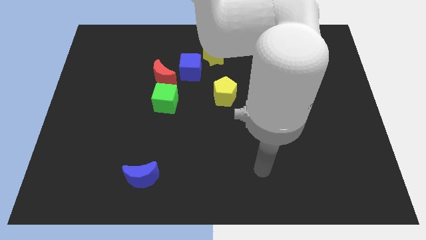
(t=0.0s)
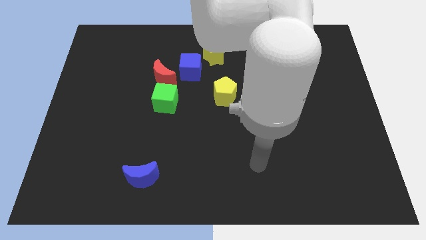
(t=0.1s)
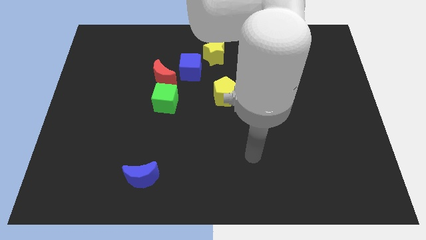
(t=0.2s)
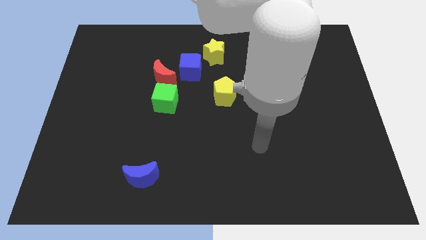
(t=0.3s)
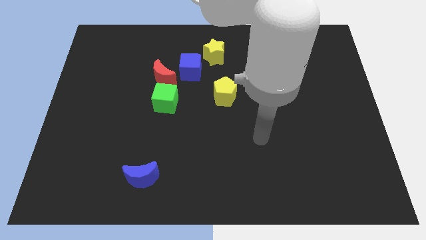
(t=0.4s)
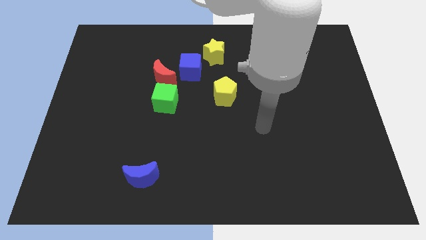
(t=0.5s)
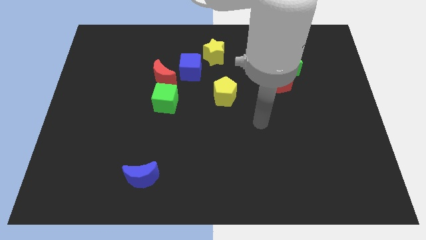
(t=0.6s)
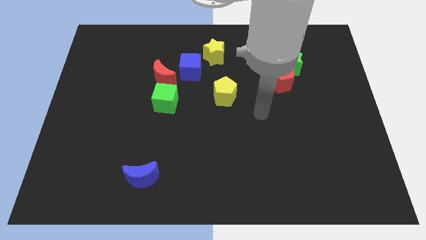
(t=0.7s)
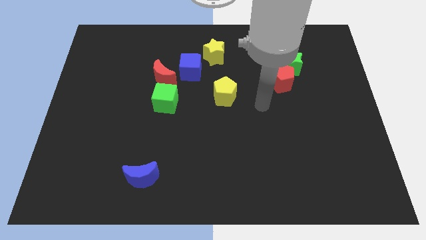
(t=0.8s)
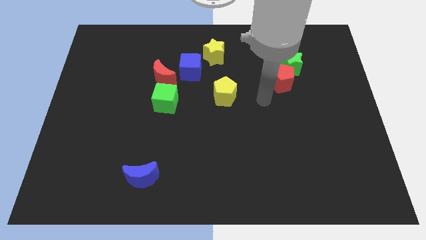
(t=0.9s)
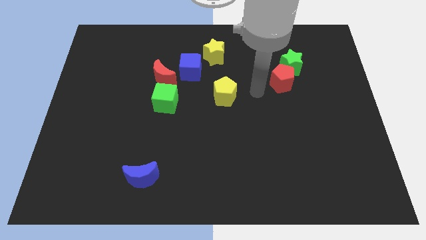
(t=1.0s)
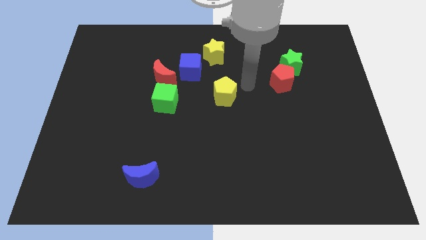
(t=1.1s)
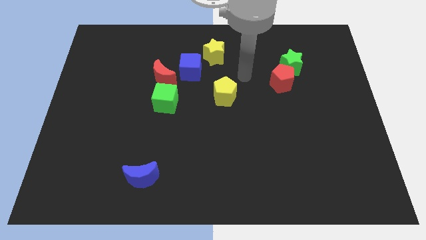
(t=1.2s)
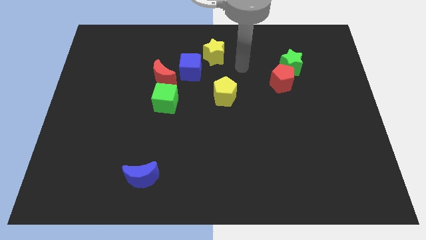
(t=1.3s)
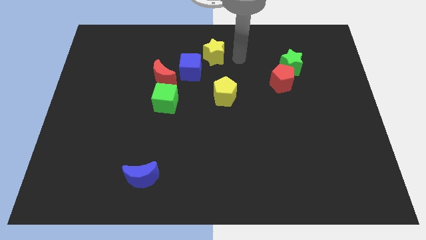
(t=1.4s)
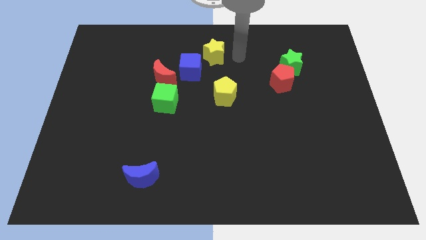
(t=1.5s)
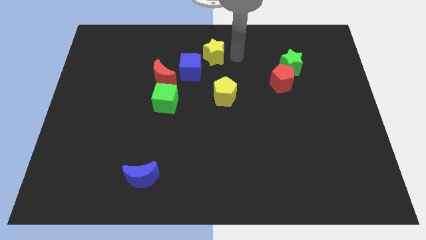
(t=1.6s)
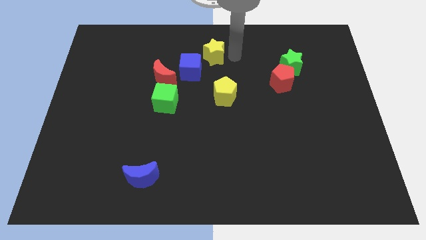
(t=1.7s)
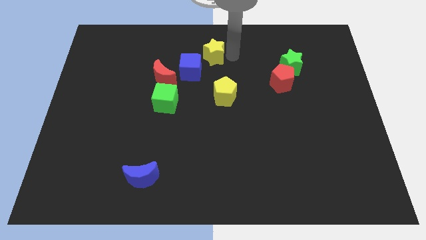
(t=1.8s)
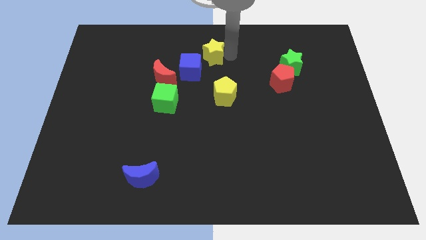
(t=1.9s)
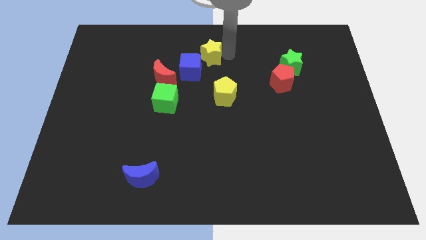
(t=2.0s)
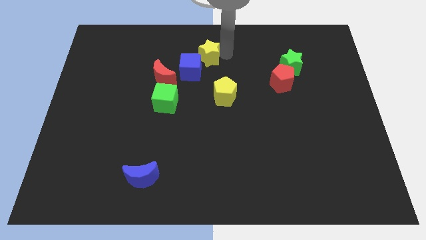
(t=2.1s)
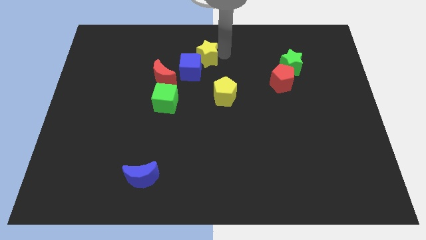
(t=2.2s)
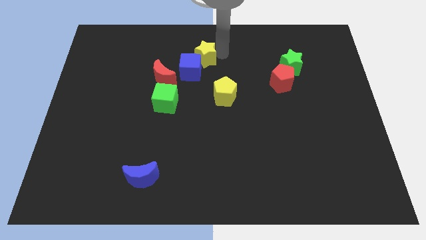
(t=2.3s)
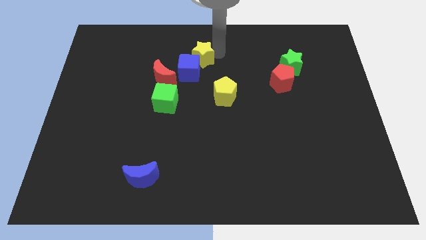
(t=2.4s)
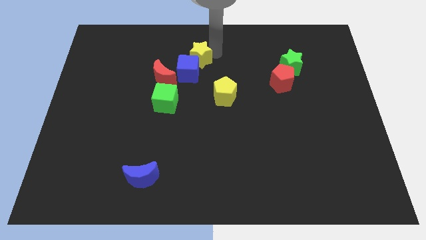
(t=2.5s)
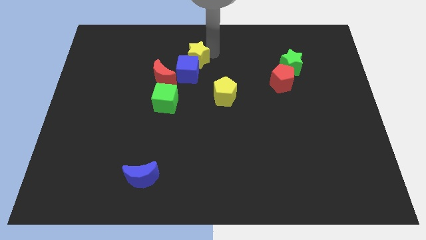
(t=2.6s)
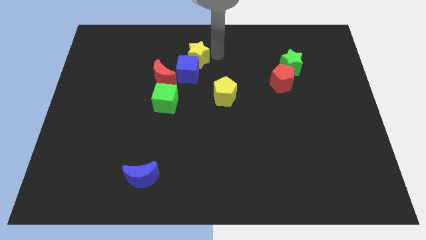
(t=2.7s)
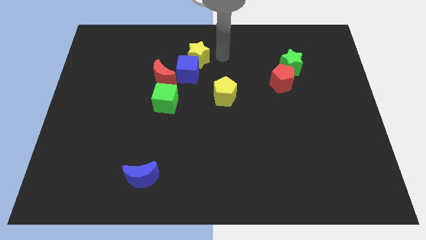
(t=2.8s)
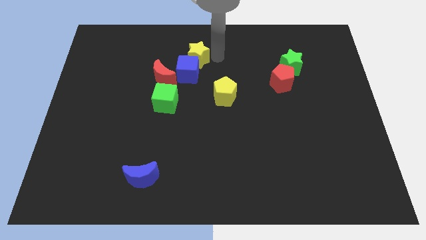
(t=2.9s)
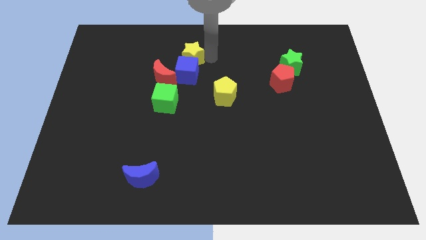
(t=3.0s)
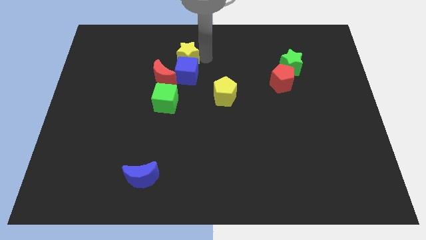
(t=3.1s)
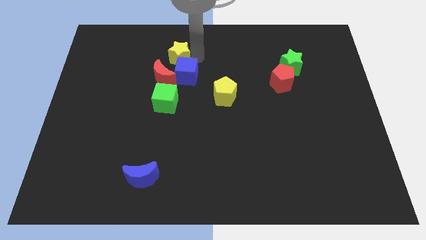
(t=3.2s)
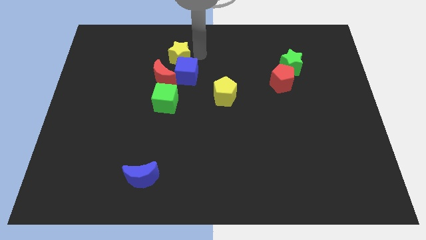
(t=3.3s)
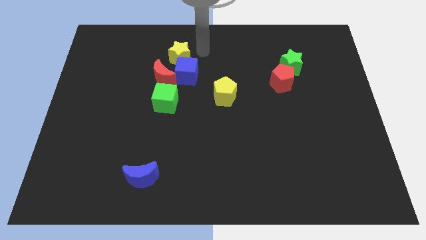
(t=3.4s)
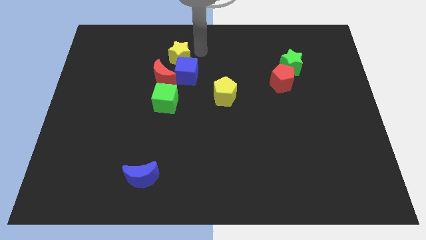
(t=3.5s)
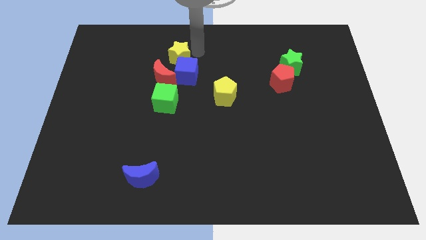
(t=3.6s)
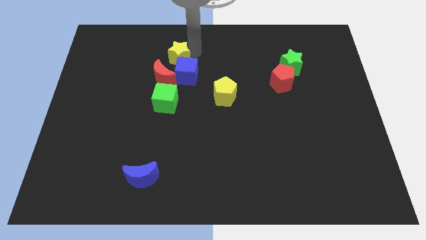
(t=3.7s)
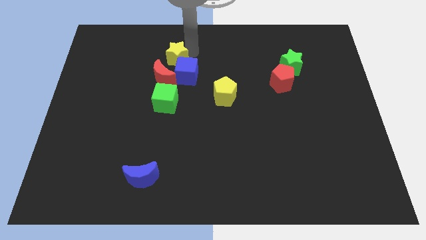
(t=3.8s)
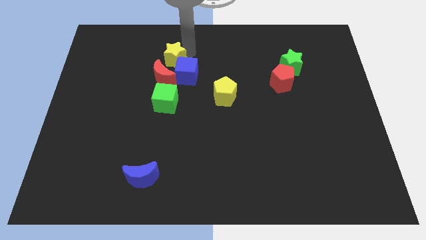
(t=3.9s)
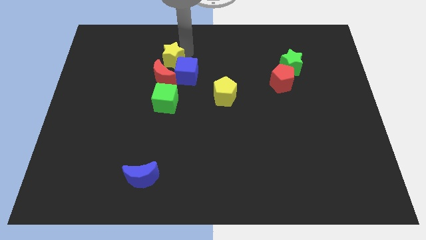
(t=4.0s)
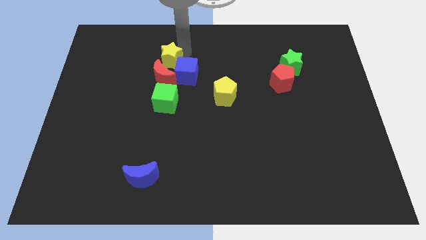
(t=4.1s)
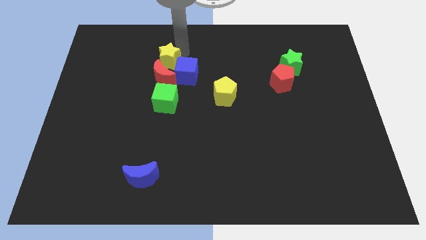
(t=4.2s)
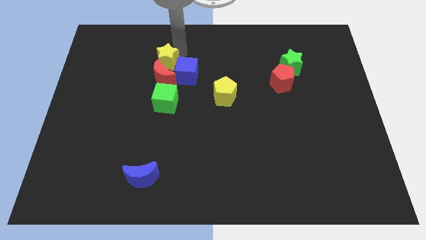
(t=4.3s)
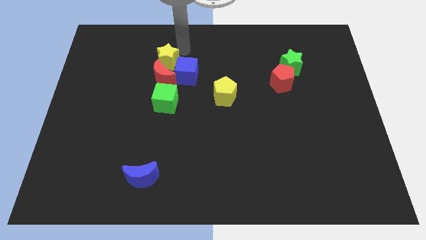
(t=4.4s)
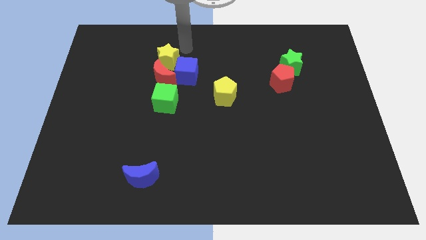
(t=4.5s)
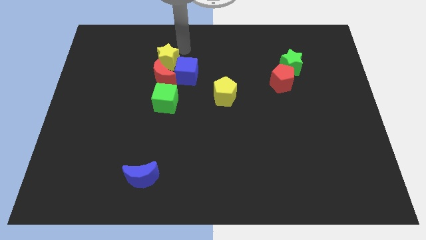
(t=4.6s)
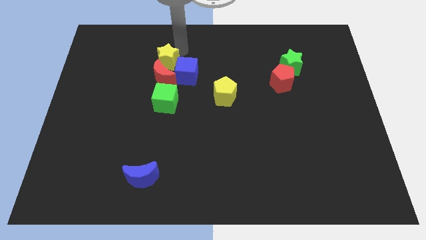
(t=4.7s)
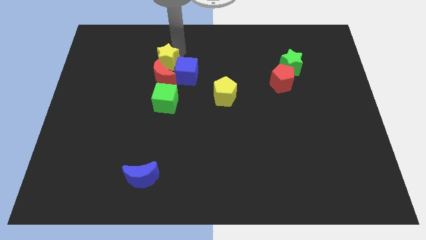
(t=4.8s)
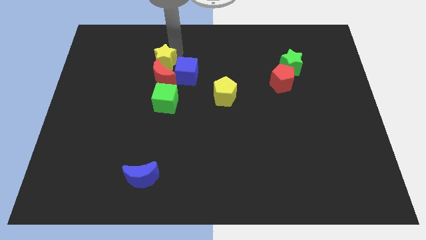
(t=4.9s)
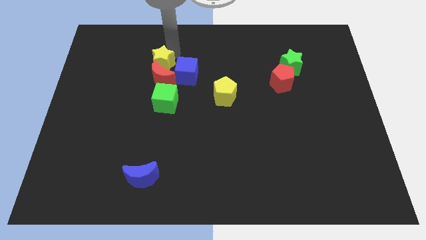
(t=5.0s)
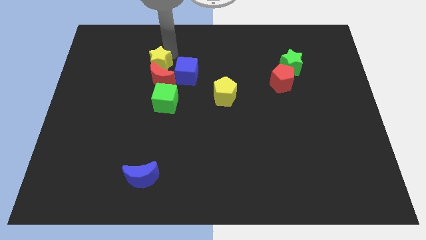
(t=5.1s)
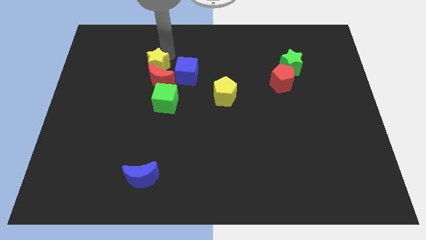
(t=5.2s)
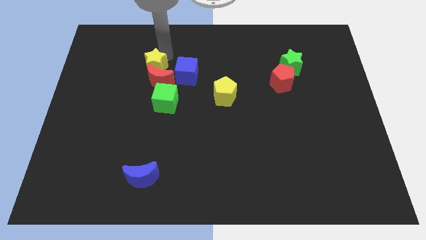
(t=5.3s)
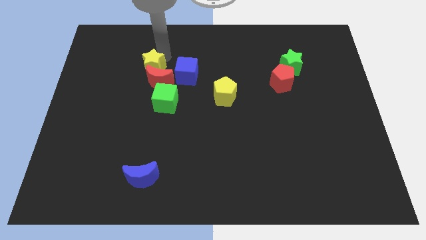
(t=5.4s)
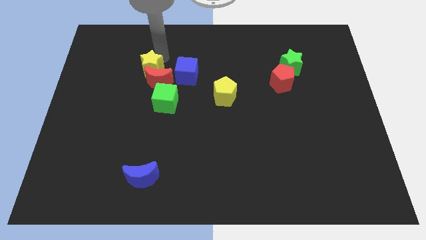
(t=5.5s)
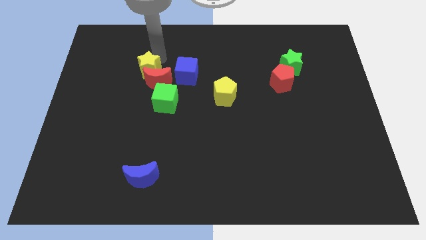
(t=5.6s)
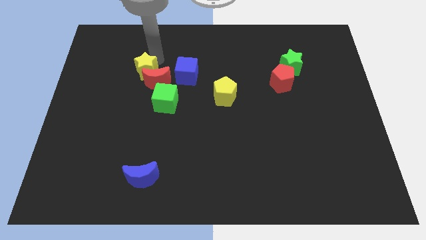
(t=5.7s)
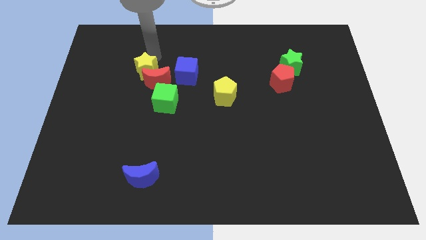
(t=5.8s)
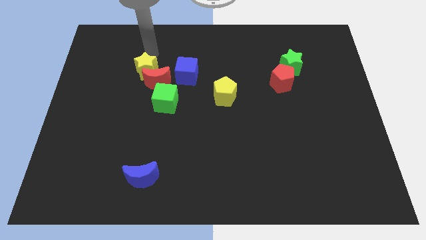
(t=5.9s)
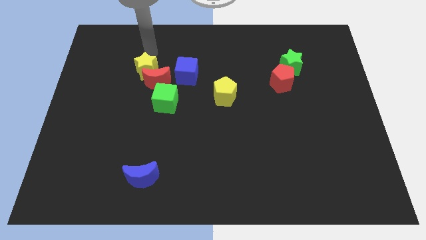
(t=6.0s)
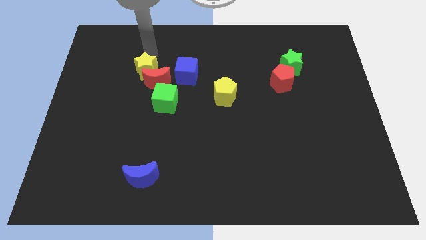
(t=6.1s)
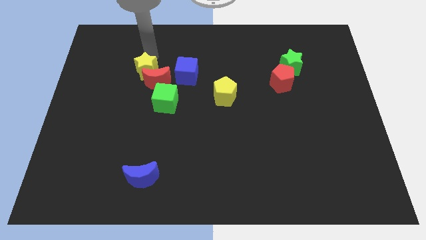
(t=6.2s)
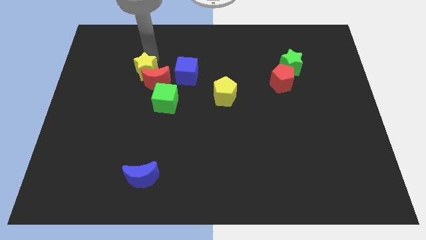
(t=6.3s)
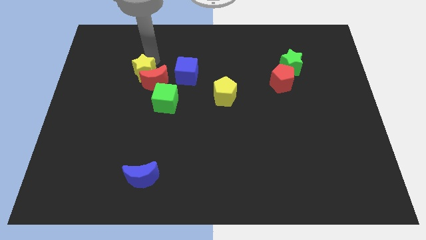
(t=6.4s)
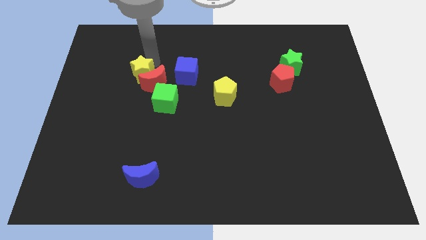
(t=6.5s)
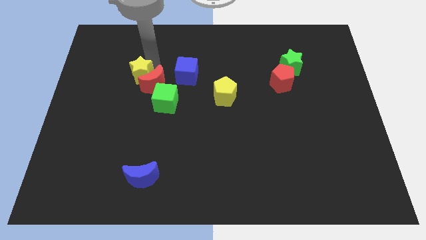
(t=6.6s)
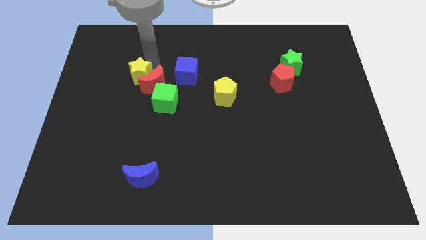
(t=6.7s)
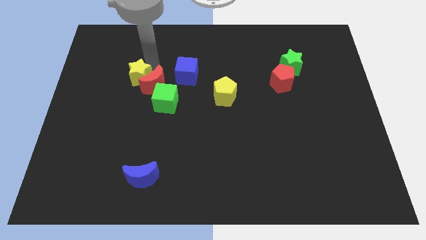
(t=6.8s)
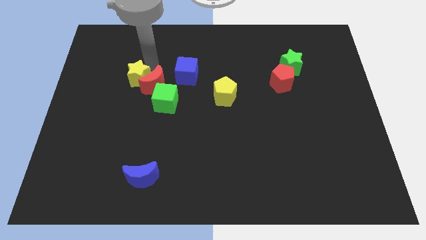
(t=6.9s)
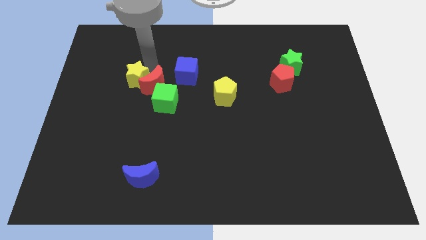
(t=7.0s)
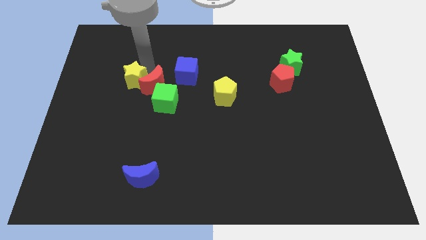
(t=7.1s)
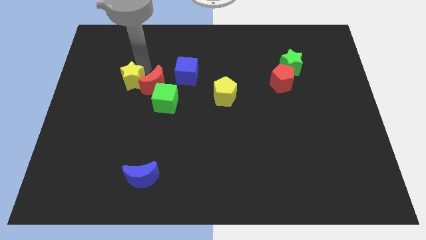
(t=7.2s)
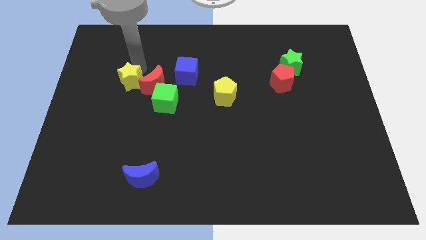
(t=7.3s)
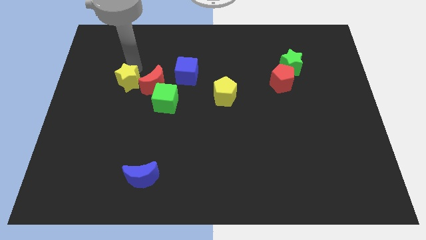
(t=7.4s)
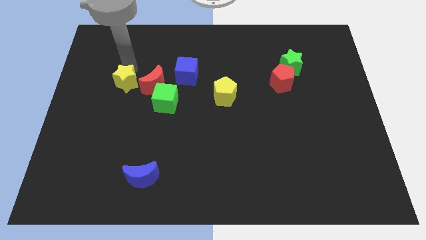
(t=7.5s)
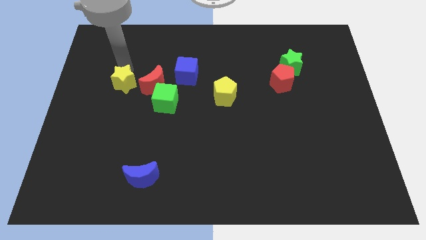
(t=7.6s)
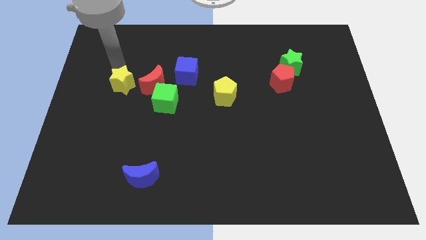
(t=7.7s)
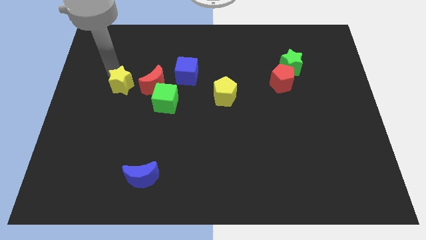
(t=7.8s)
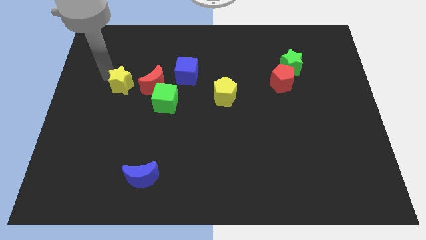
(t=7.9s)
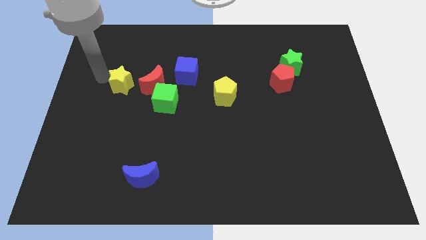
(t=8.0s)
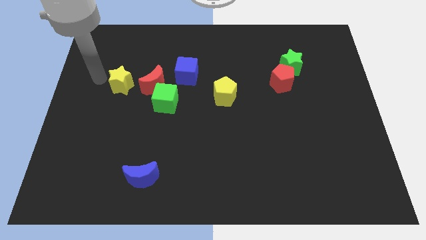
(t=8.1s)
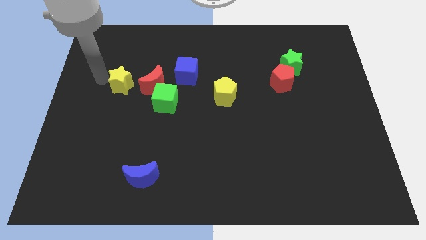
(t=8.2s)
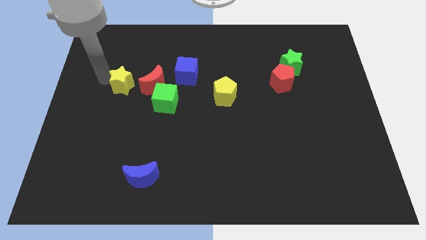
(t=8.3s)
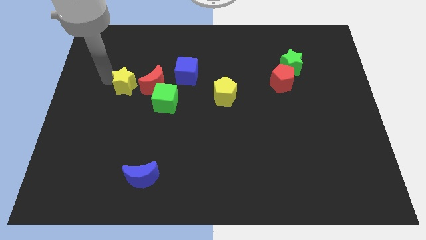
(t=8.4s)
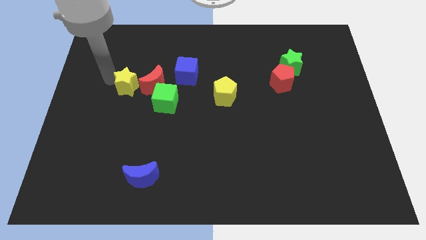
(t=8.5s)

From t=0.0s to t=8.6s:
move the yellow star downwards and to the left diagonally
